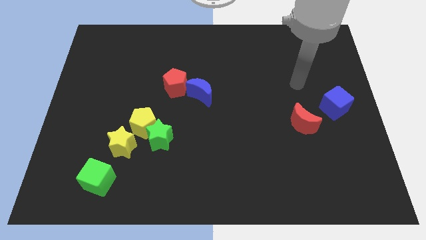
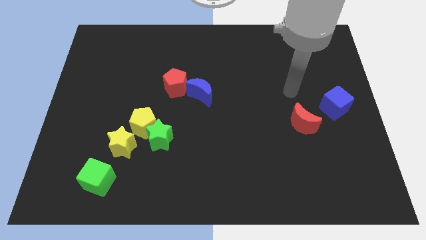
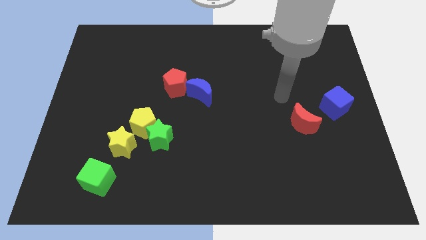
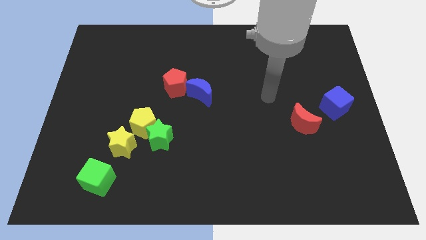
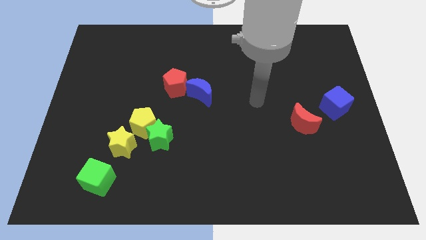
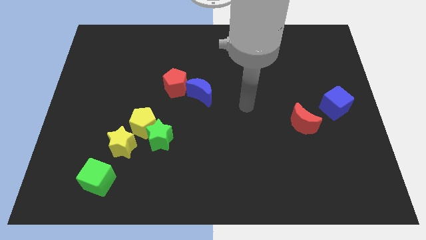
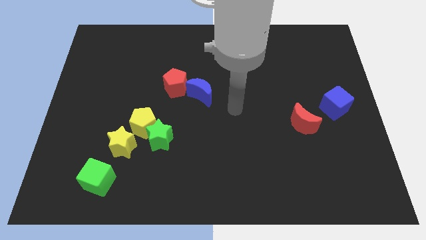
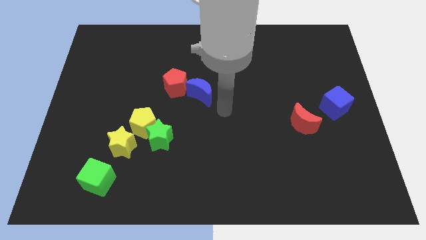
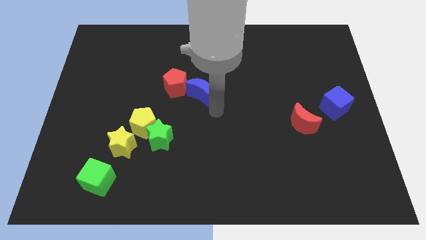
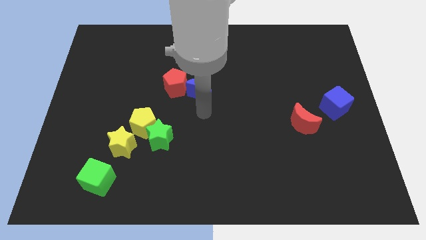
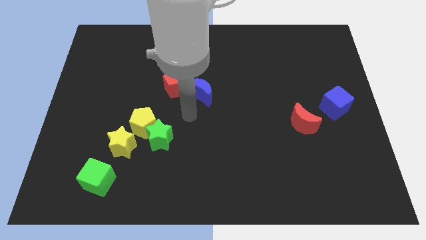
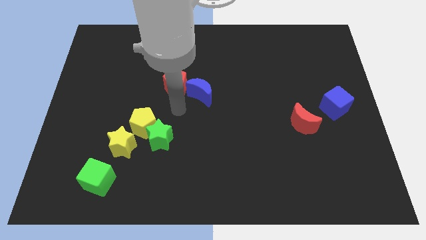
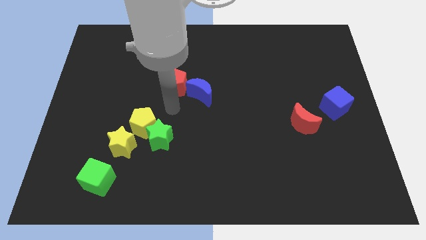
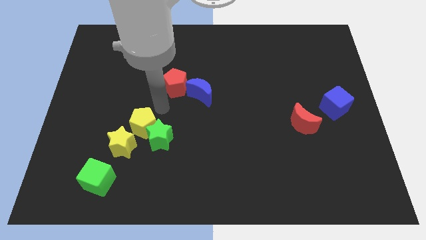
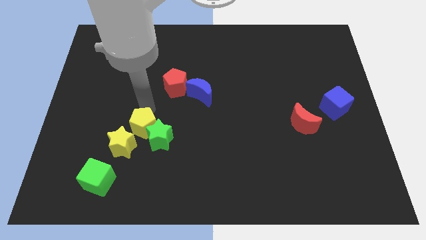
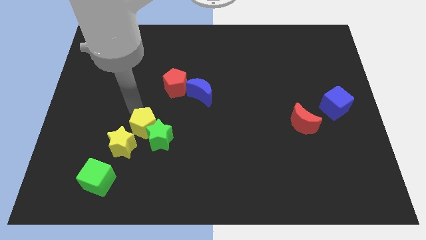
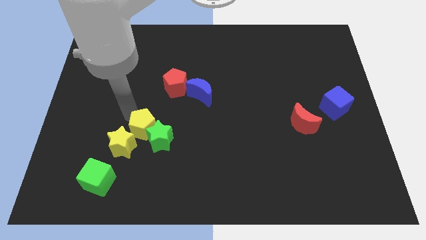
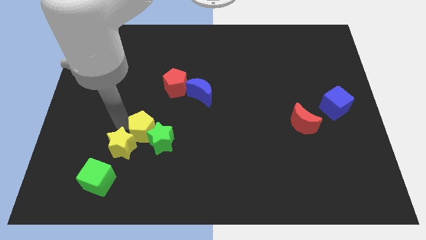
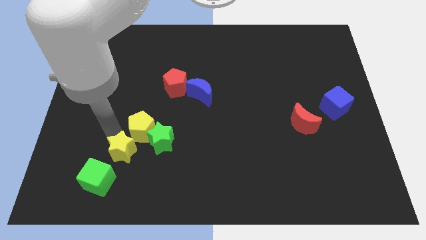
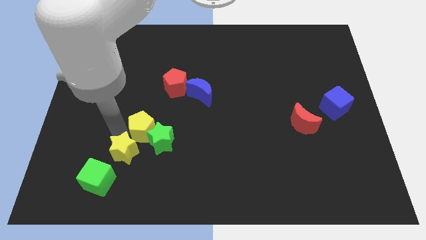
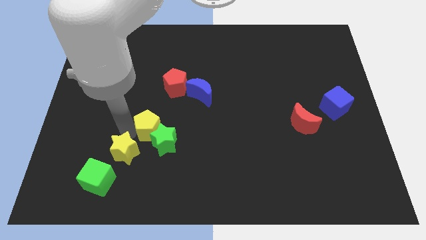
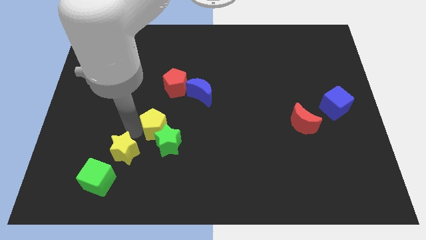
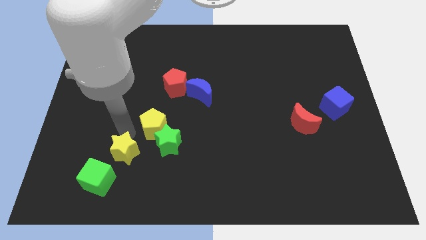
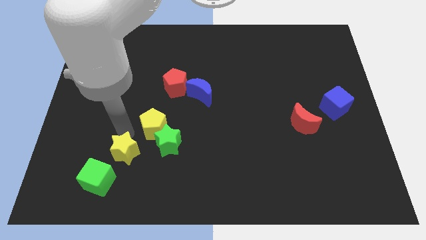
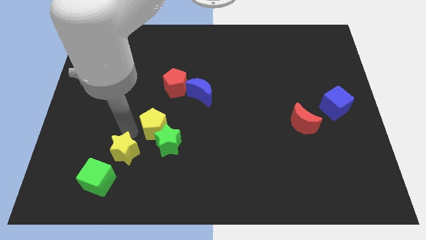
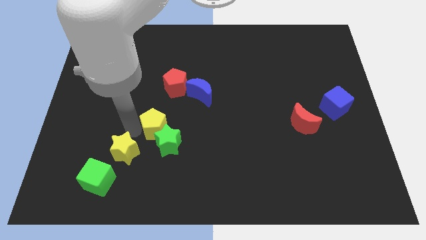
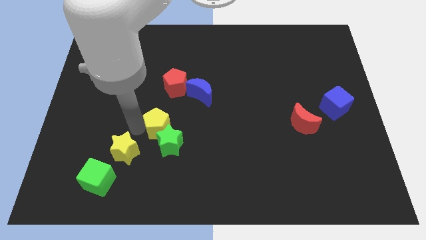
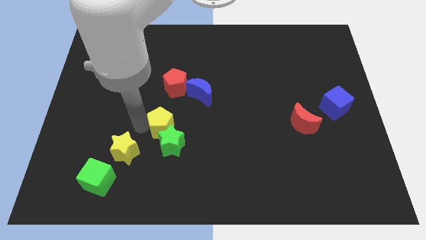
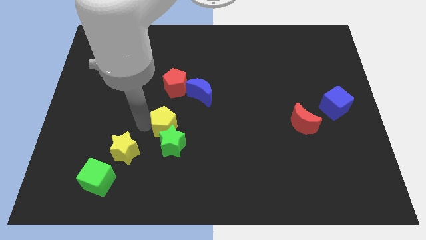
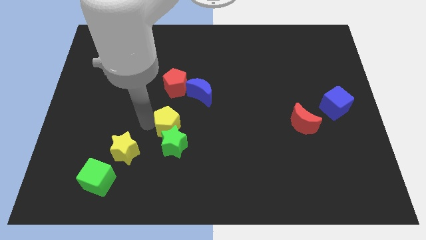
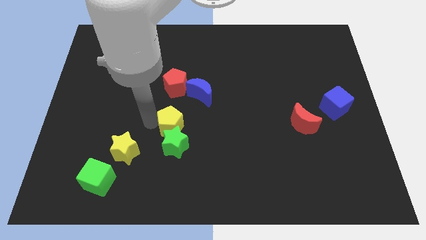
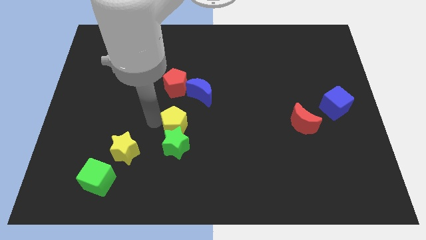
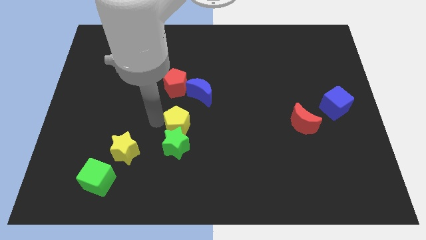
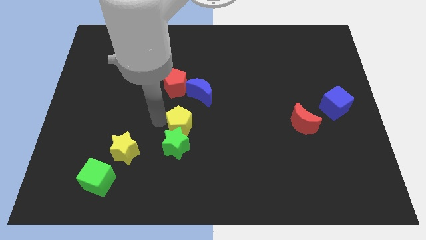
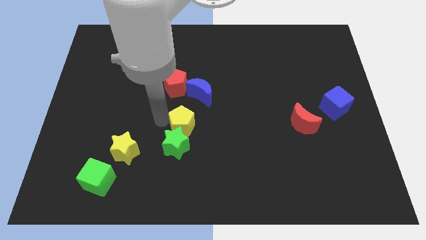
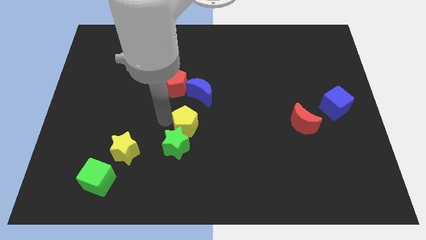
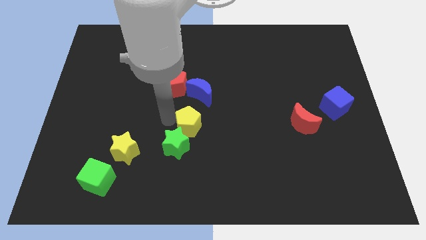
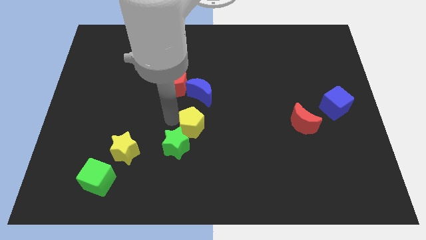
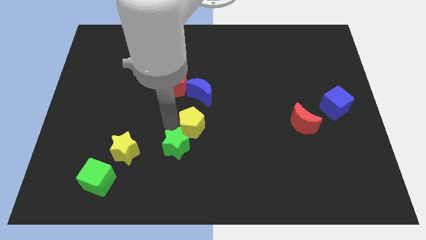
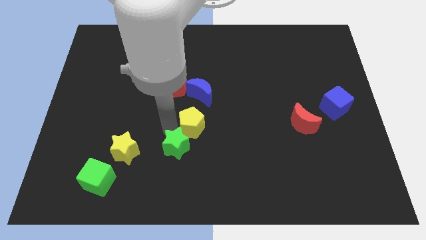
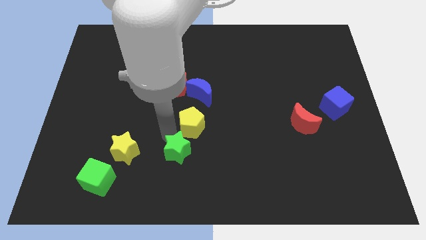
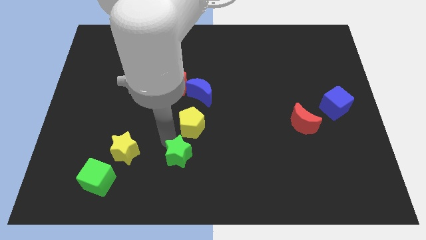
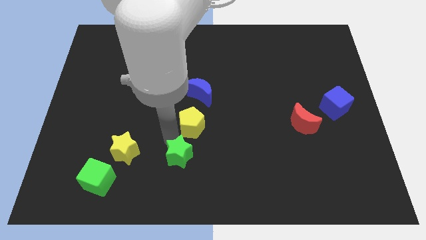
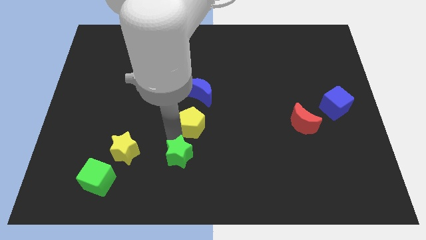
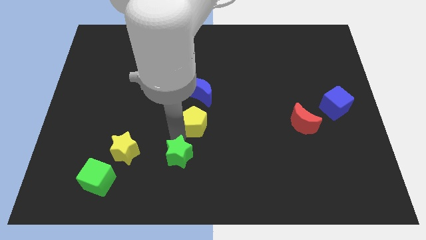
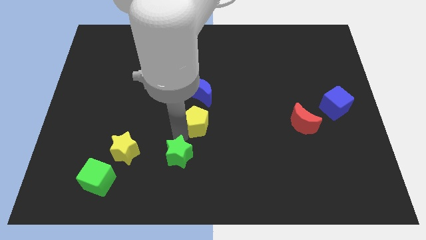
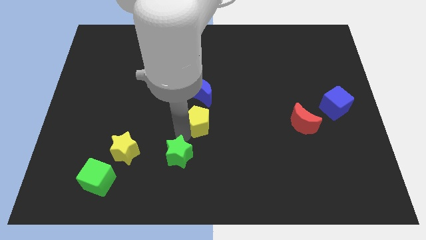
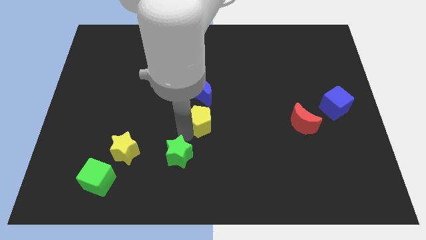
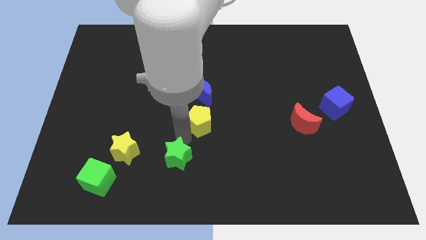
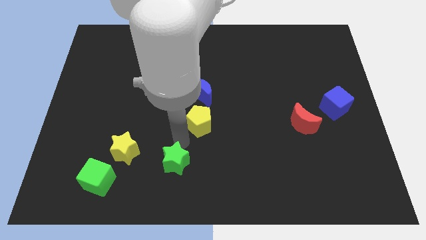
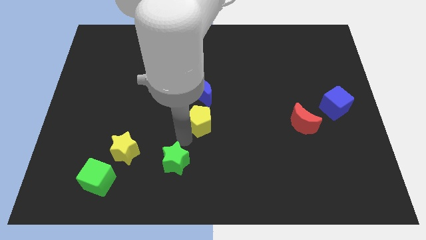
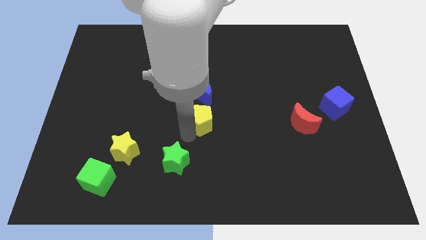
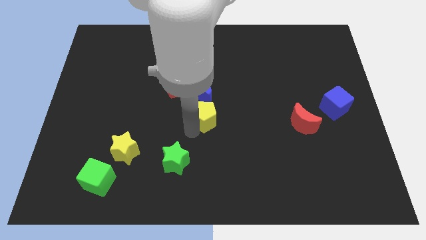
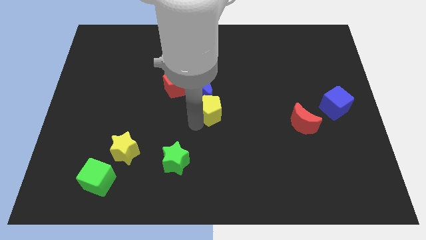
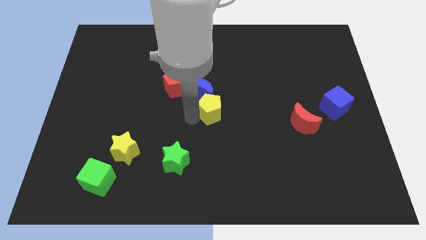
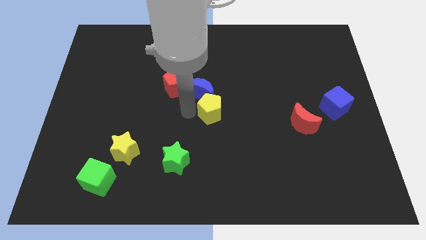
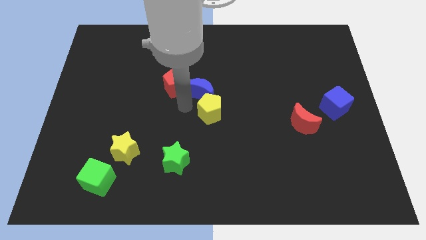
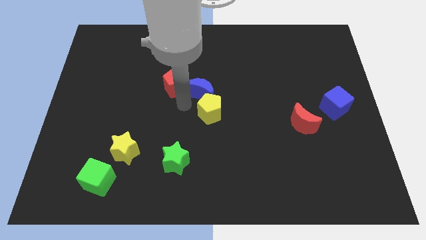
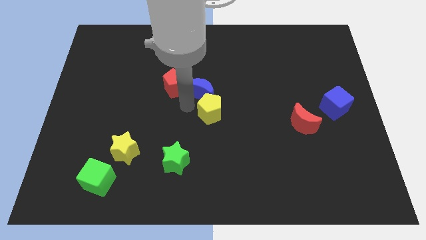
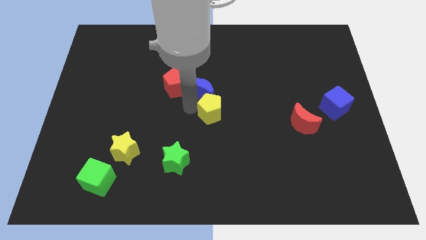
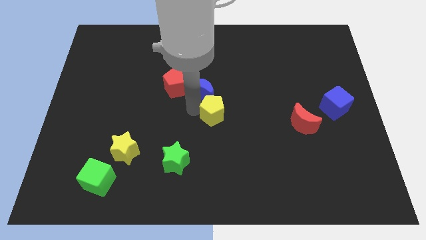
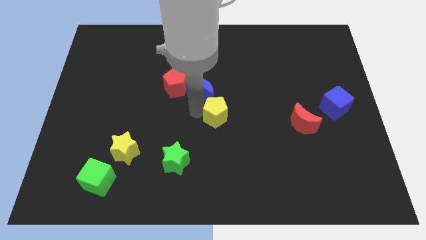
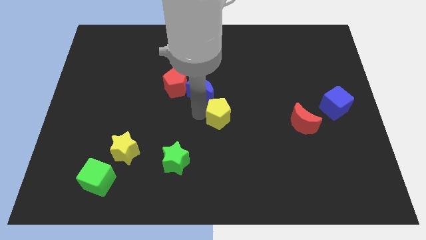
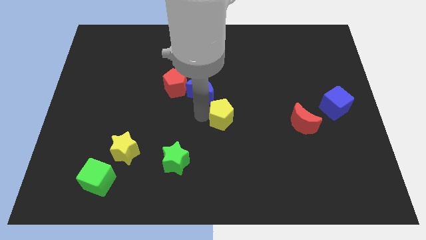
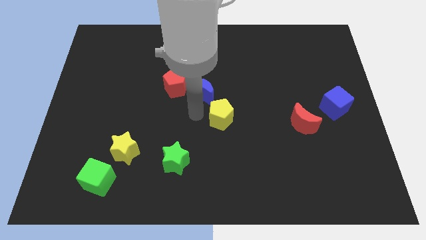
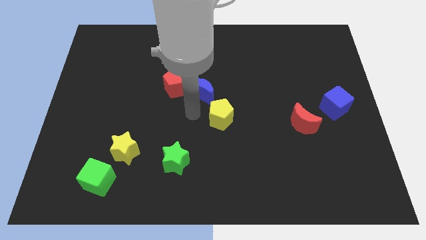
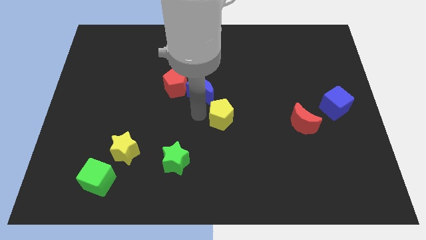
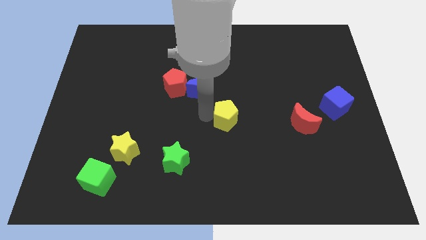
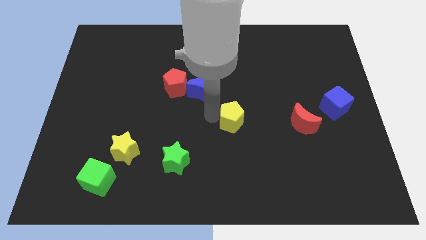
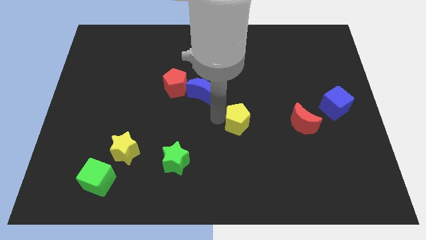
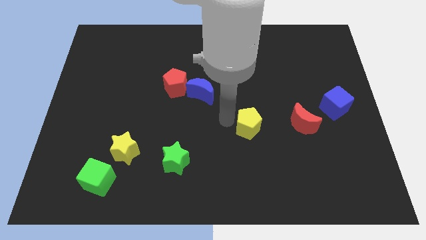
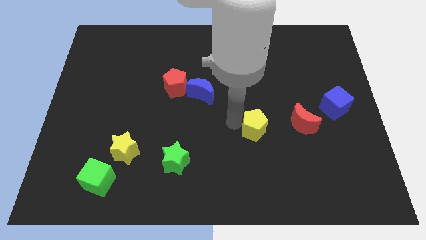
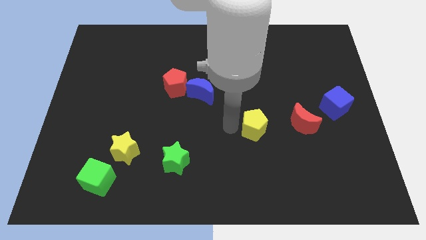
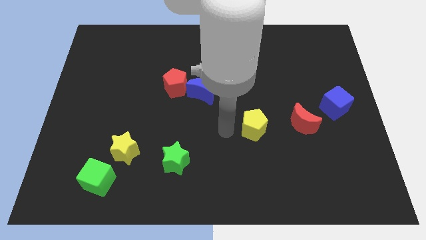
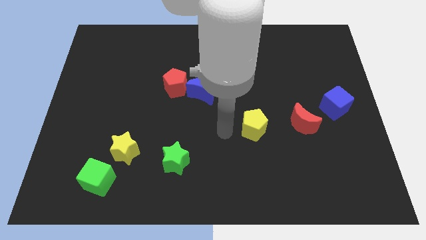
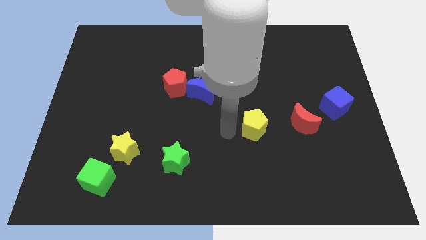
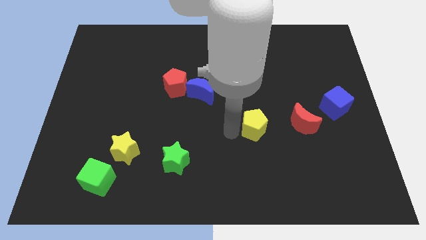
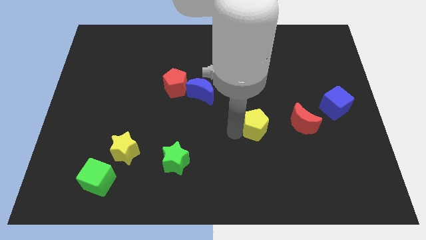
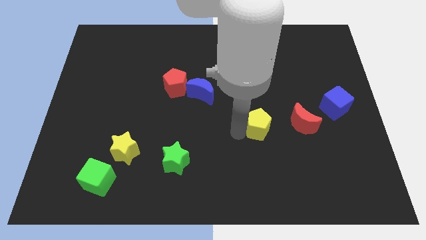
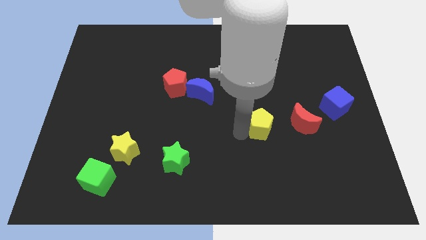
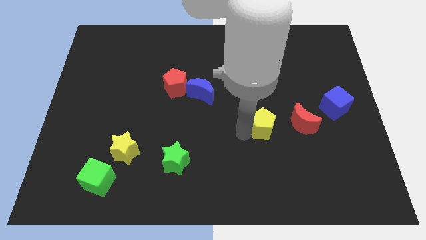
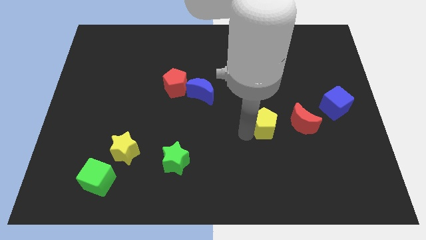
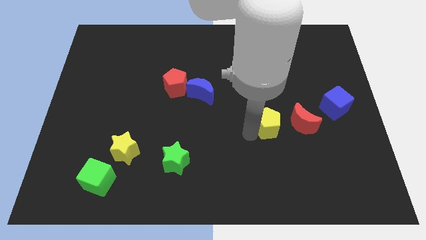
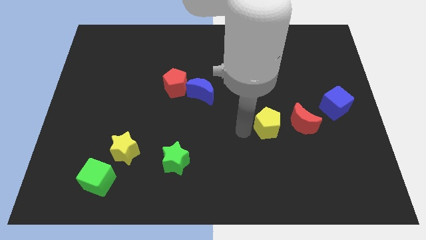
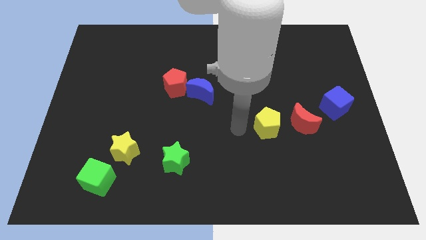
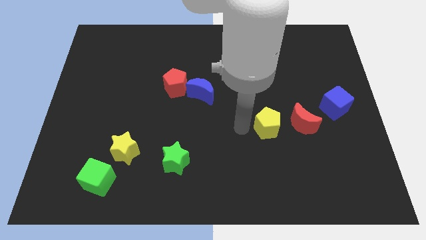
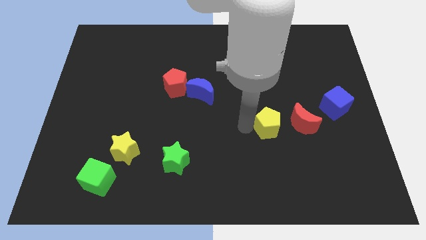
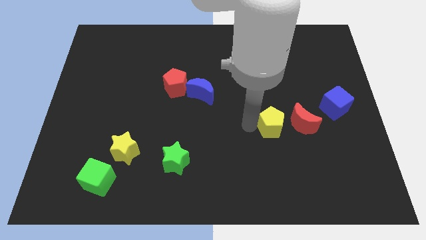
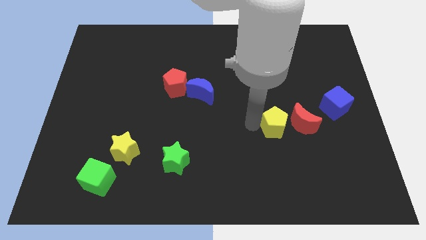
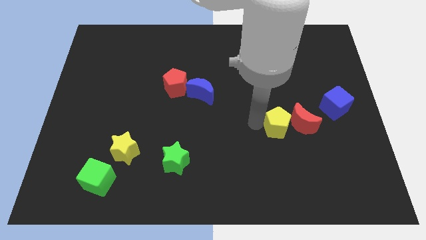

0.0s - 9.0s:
slide the yellow pentagon towards the red moon
